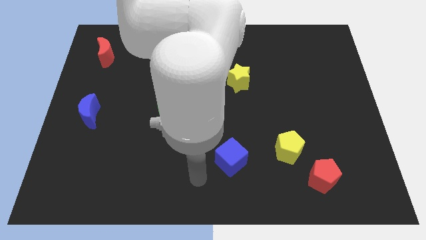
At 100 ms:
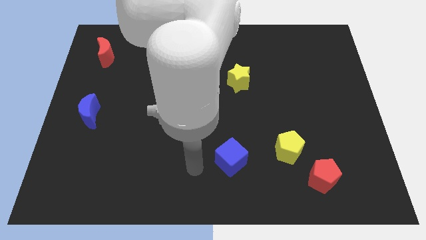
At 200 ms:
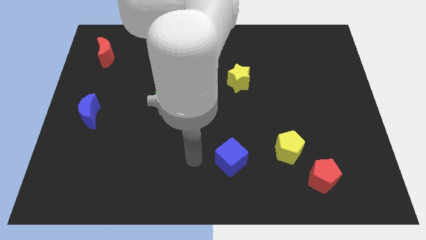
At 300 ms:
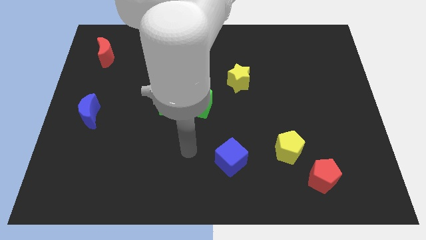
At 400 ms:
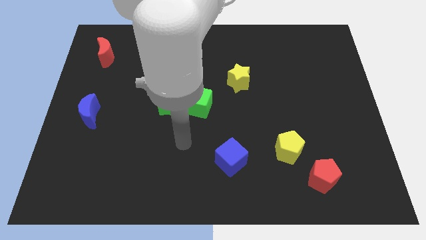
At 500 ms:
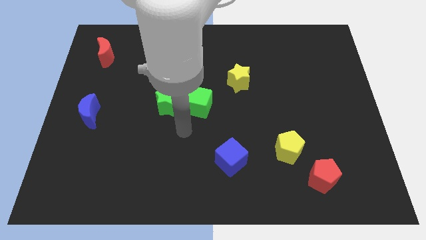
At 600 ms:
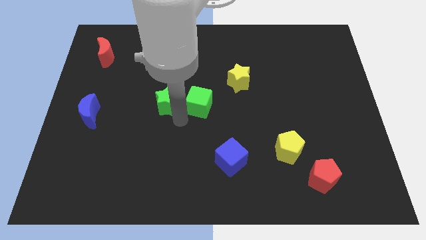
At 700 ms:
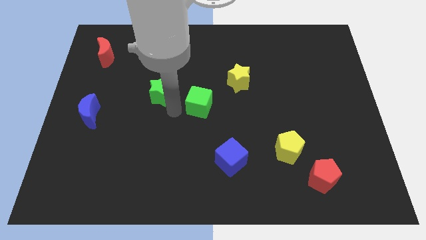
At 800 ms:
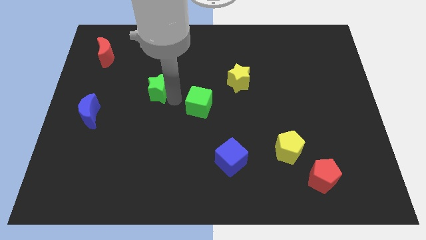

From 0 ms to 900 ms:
separate the green cube from the green star

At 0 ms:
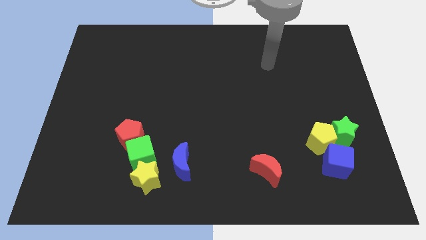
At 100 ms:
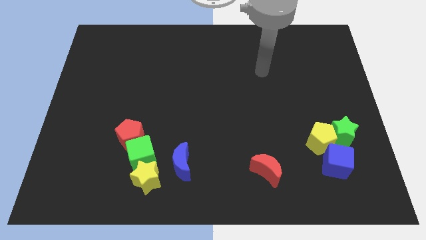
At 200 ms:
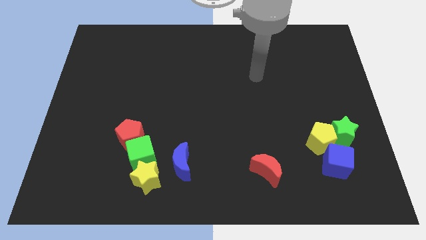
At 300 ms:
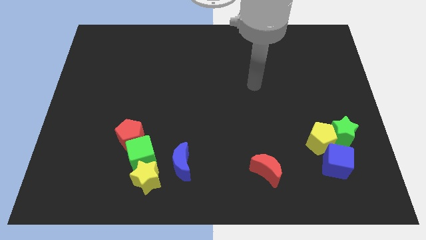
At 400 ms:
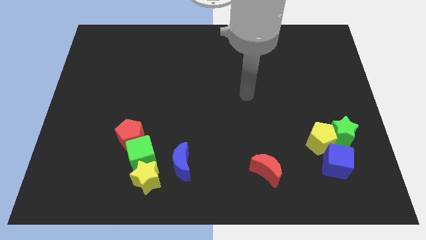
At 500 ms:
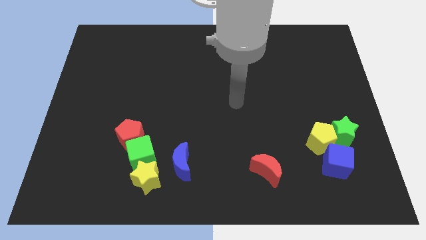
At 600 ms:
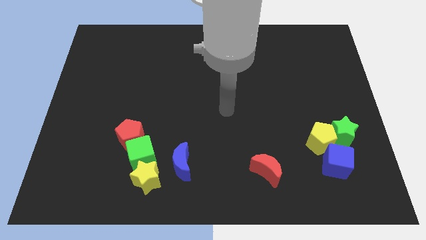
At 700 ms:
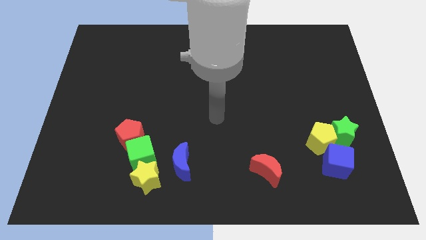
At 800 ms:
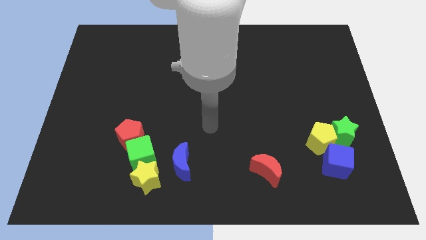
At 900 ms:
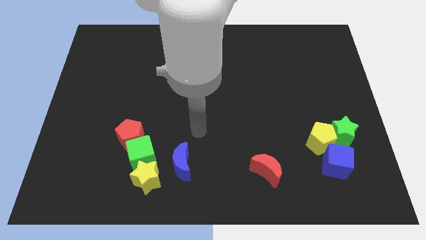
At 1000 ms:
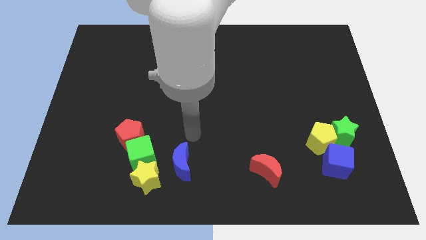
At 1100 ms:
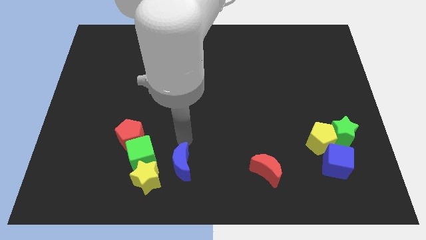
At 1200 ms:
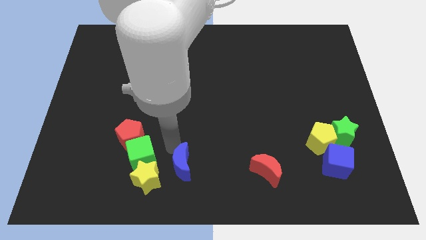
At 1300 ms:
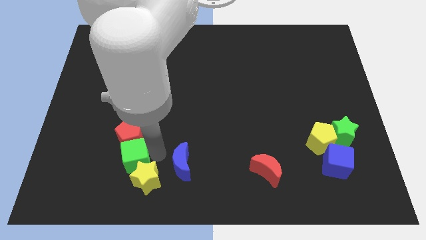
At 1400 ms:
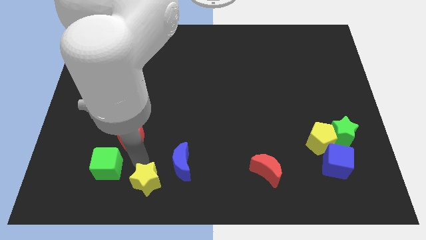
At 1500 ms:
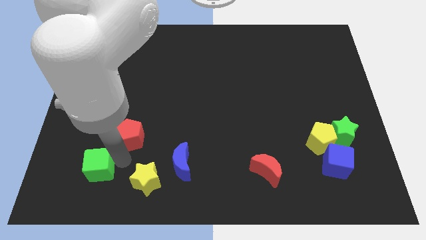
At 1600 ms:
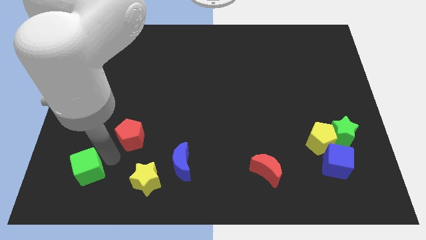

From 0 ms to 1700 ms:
move the red pentagon away from the green cube

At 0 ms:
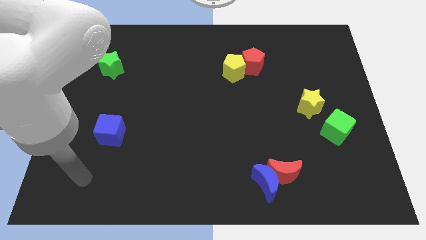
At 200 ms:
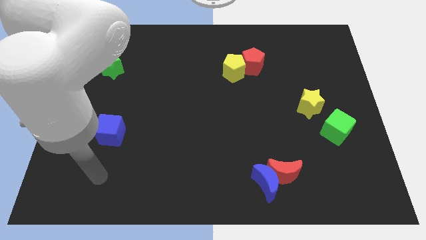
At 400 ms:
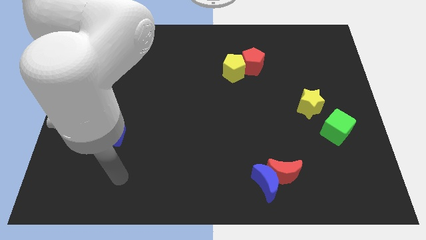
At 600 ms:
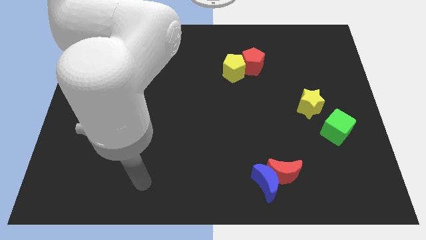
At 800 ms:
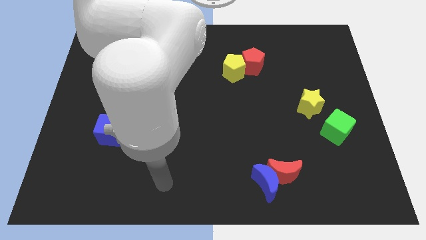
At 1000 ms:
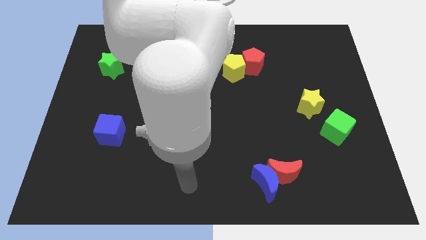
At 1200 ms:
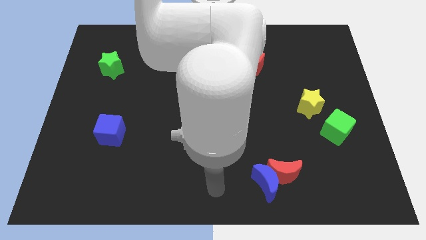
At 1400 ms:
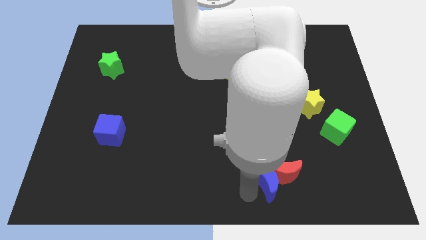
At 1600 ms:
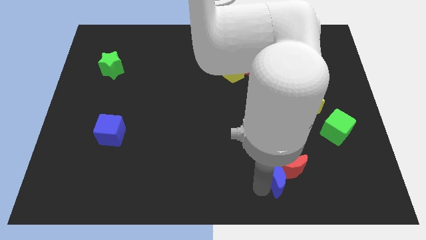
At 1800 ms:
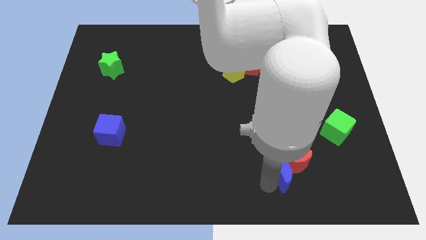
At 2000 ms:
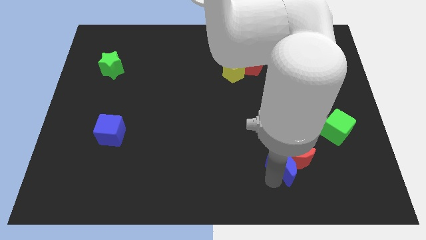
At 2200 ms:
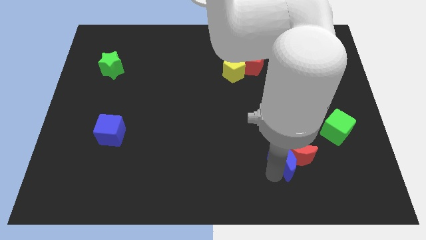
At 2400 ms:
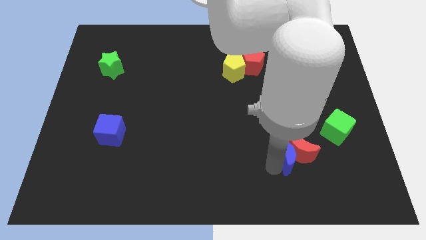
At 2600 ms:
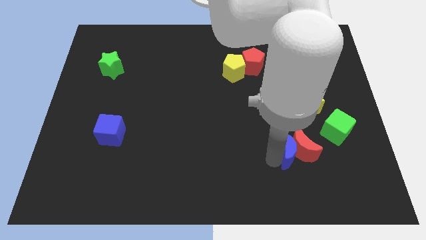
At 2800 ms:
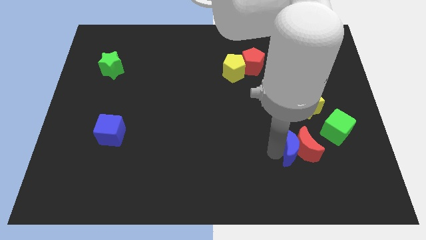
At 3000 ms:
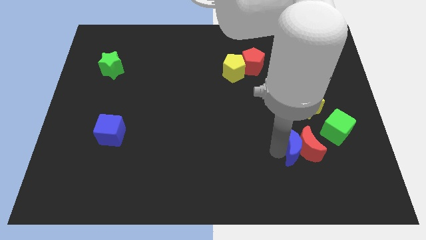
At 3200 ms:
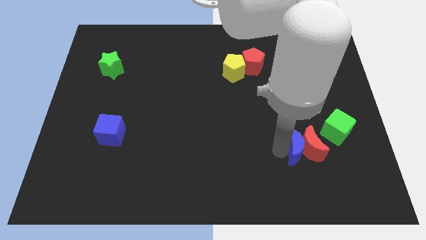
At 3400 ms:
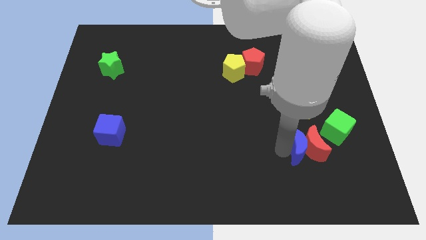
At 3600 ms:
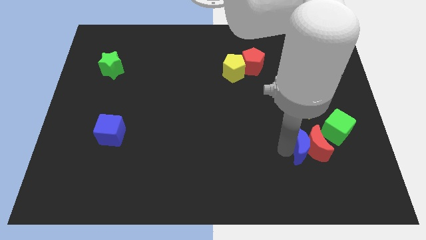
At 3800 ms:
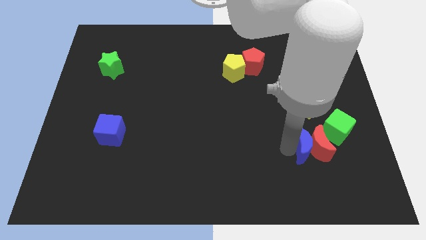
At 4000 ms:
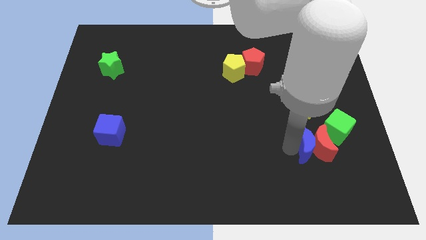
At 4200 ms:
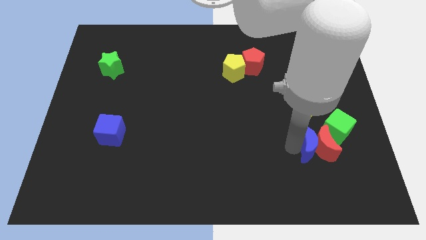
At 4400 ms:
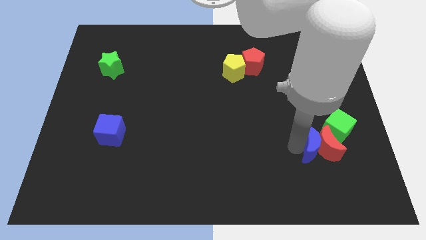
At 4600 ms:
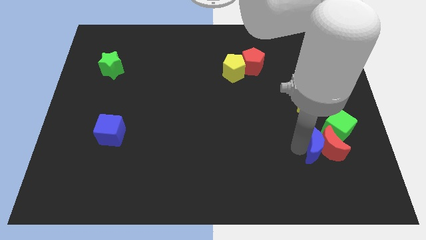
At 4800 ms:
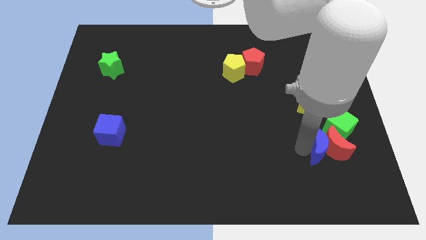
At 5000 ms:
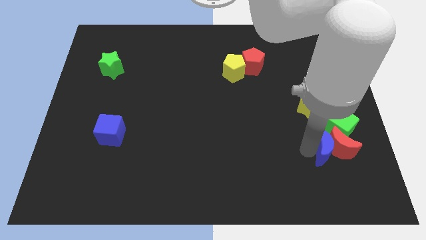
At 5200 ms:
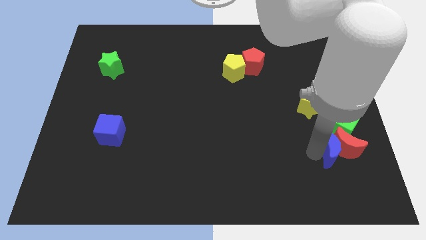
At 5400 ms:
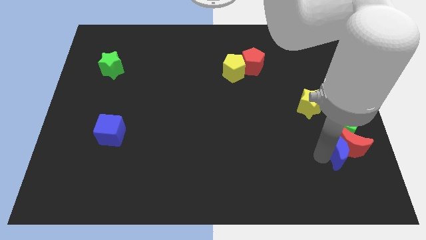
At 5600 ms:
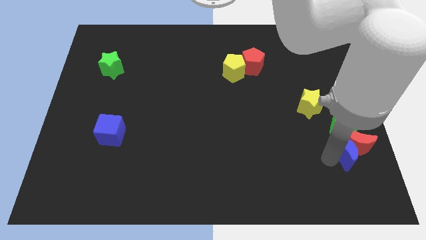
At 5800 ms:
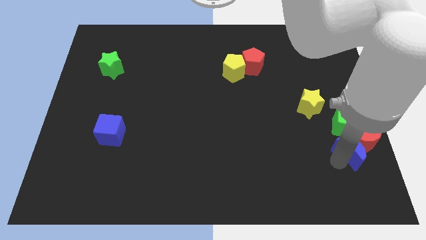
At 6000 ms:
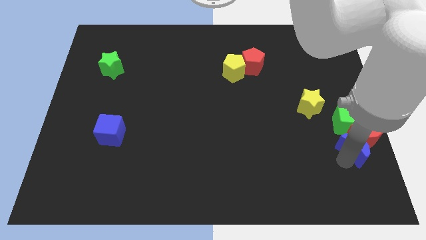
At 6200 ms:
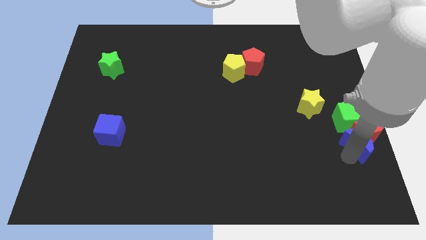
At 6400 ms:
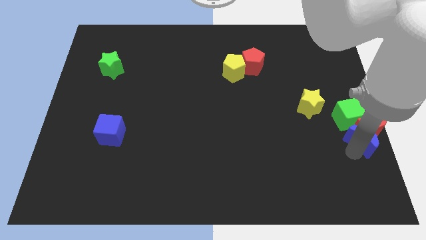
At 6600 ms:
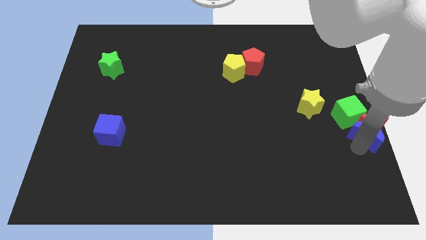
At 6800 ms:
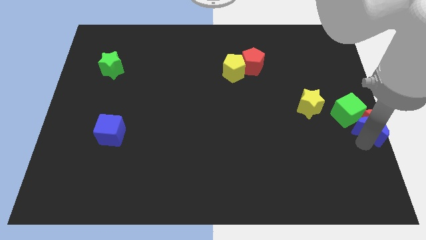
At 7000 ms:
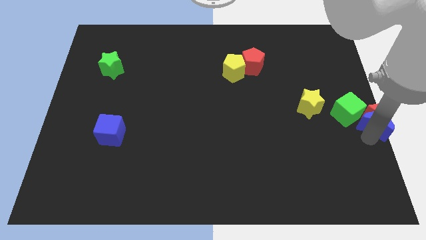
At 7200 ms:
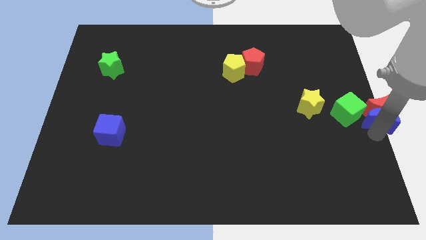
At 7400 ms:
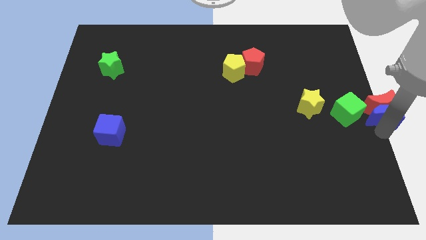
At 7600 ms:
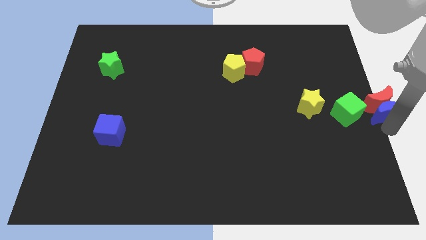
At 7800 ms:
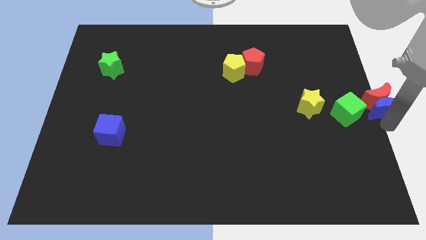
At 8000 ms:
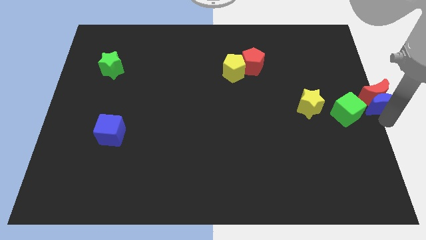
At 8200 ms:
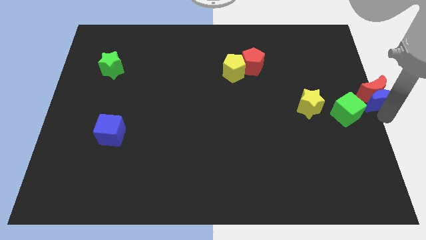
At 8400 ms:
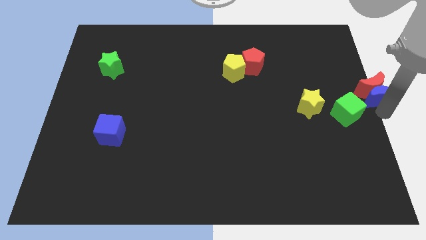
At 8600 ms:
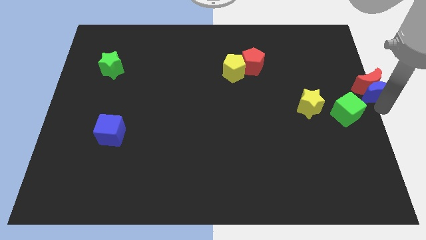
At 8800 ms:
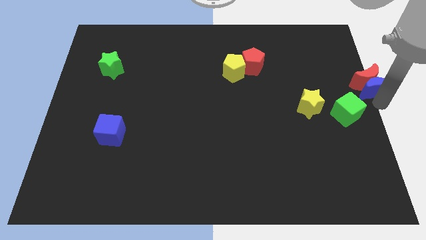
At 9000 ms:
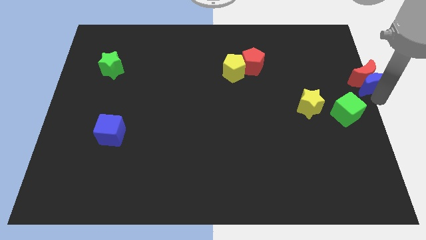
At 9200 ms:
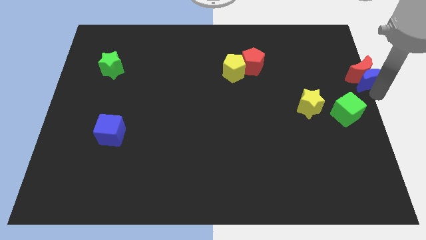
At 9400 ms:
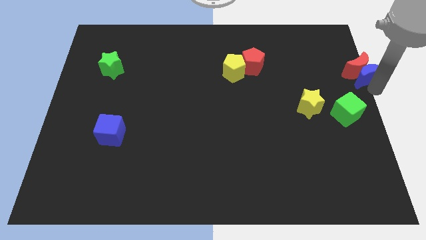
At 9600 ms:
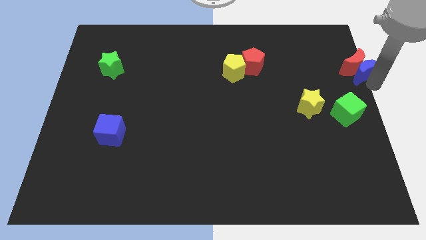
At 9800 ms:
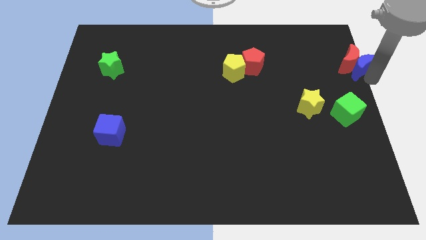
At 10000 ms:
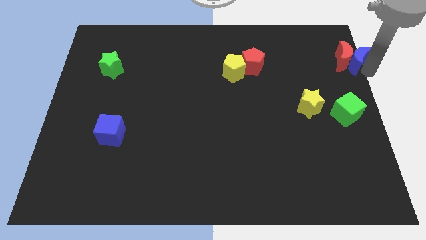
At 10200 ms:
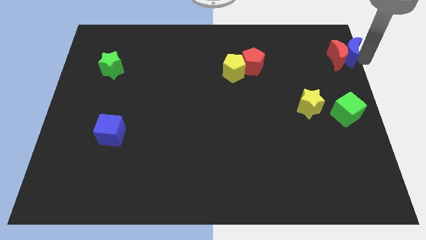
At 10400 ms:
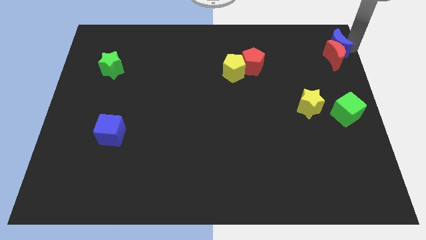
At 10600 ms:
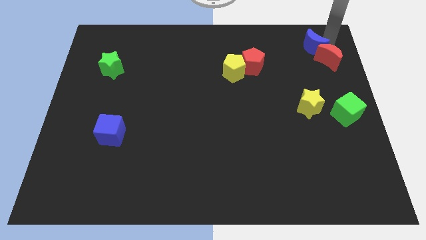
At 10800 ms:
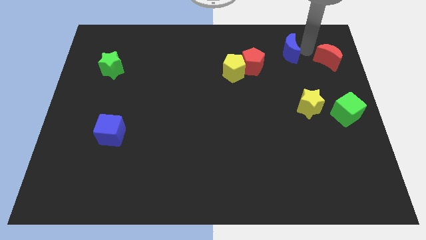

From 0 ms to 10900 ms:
move the red moon away from the blue moon

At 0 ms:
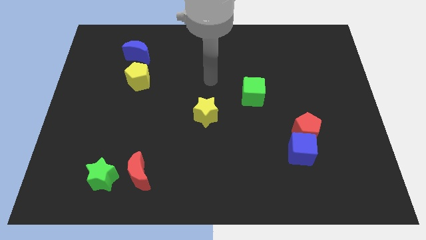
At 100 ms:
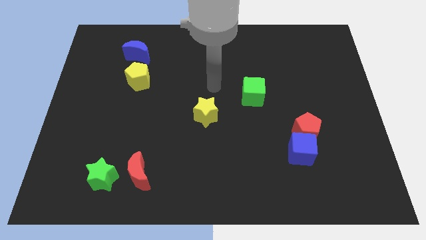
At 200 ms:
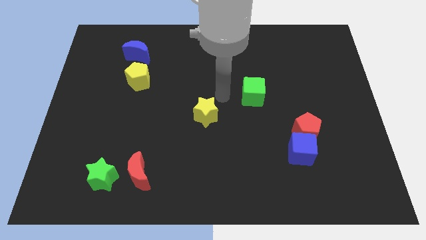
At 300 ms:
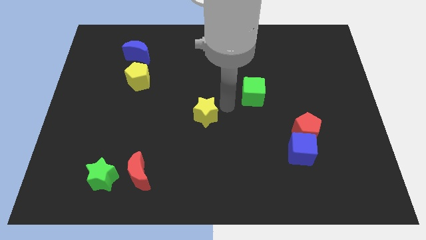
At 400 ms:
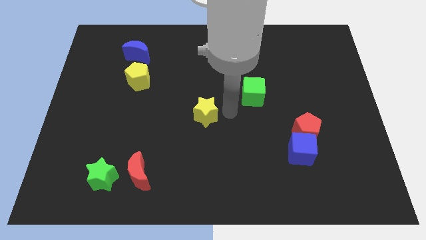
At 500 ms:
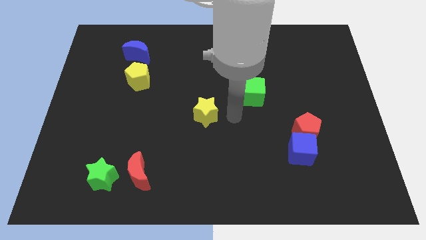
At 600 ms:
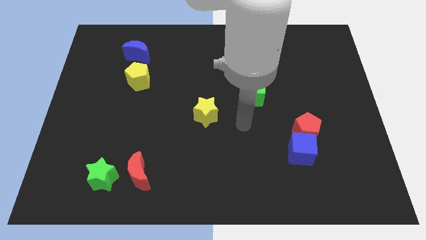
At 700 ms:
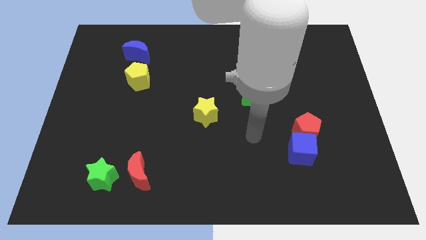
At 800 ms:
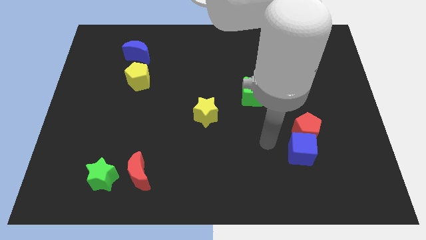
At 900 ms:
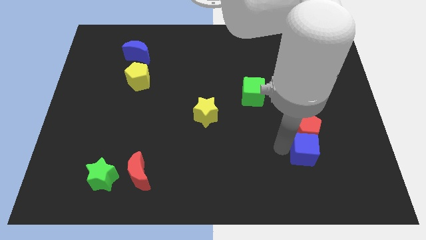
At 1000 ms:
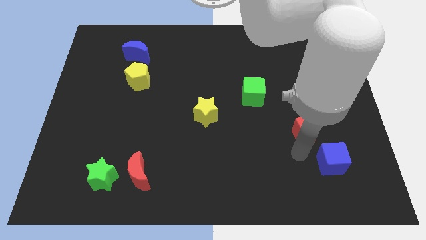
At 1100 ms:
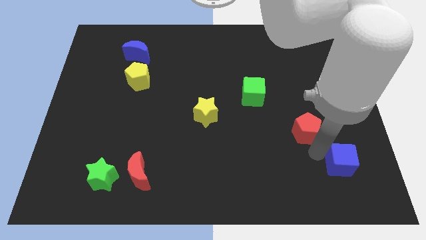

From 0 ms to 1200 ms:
move the red pentagon away from the blue cube
